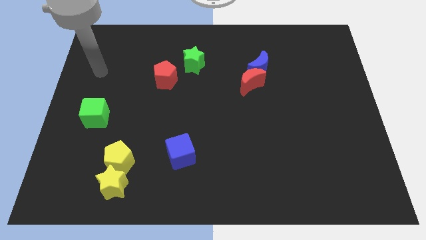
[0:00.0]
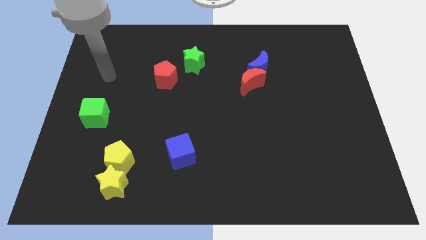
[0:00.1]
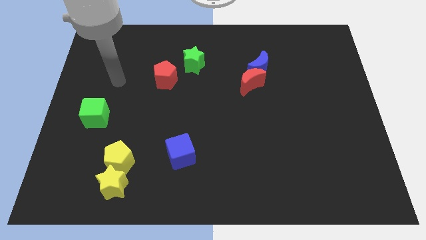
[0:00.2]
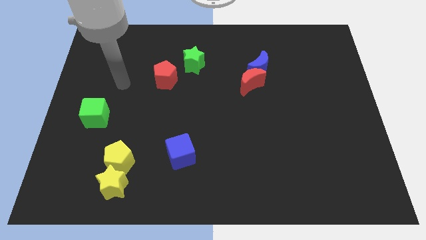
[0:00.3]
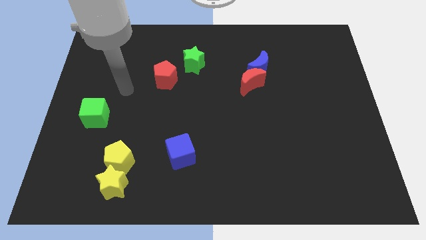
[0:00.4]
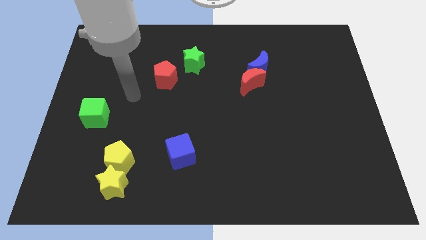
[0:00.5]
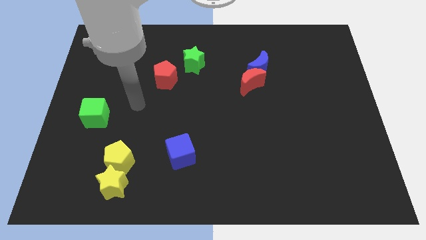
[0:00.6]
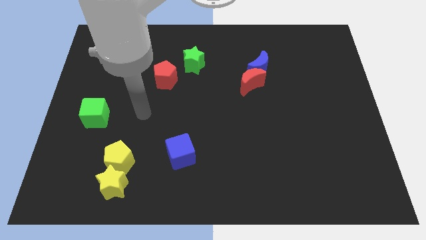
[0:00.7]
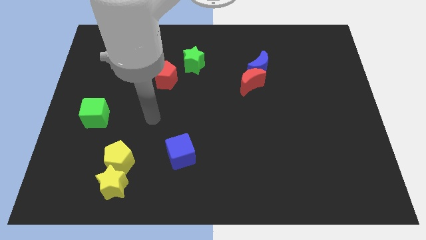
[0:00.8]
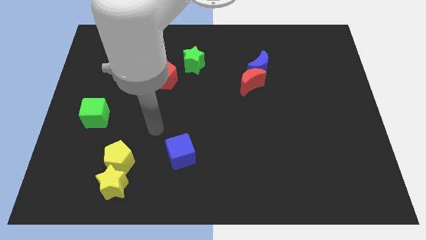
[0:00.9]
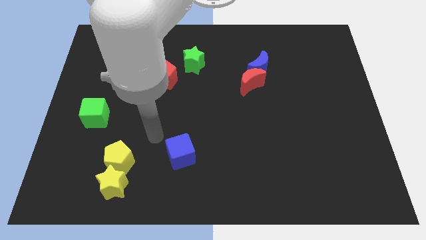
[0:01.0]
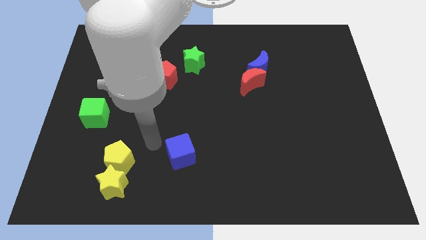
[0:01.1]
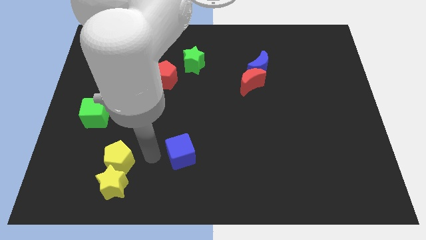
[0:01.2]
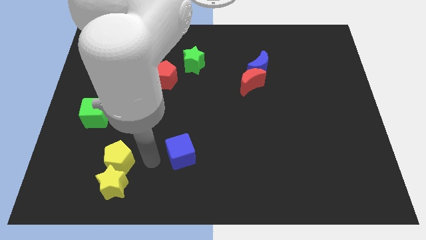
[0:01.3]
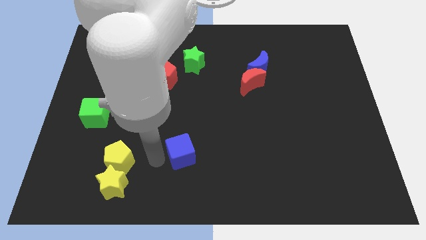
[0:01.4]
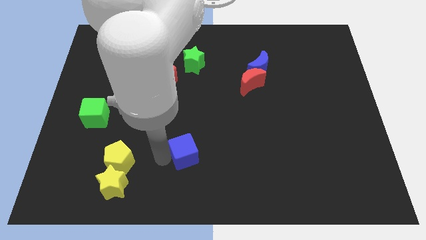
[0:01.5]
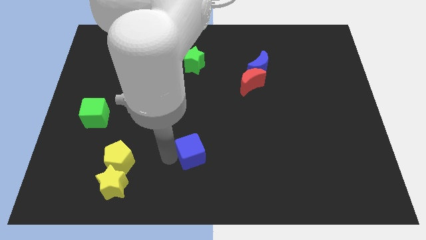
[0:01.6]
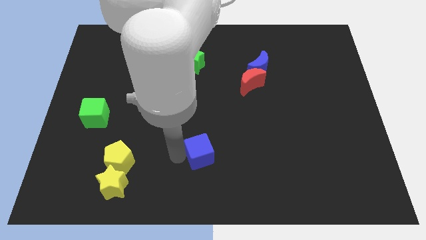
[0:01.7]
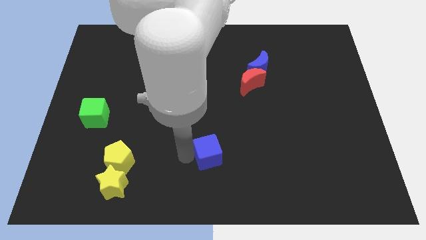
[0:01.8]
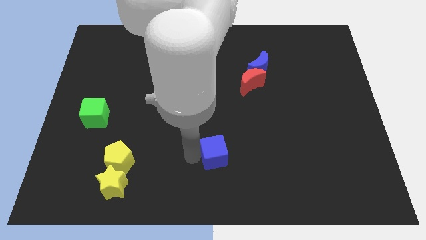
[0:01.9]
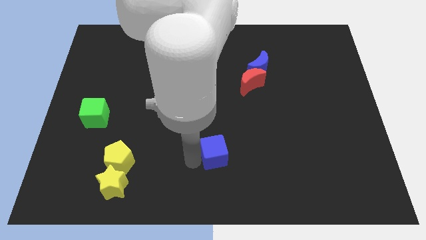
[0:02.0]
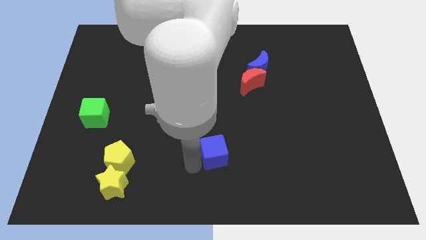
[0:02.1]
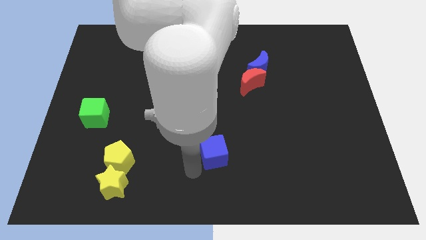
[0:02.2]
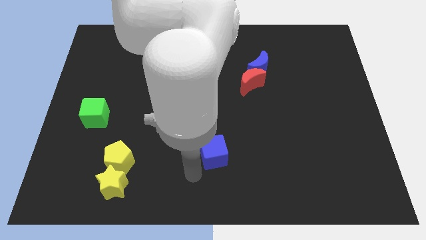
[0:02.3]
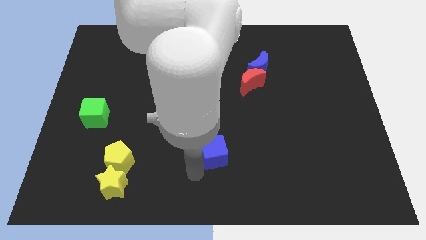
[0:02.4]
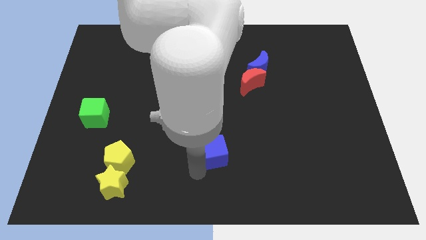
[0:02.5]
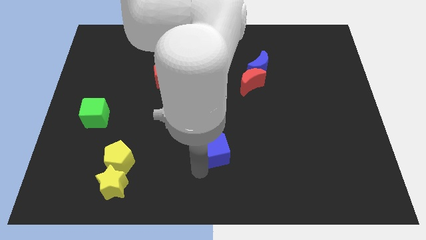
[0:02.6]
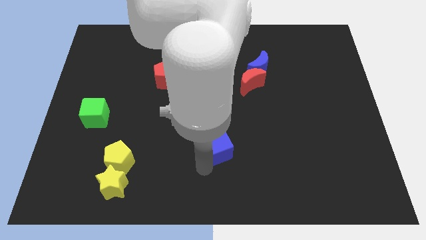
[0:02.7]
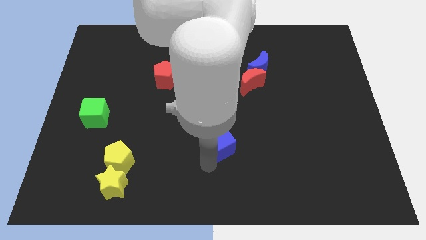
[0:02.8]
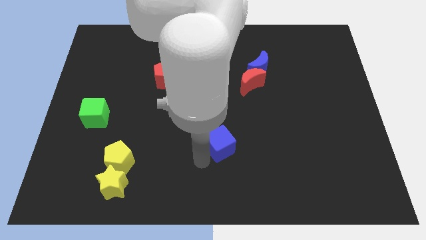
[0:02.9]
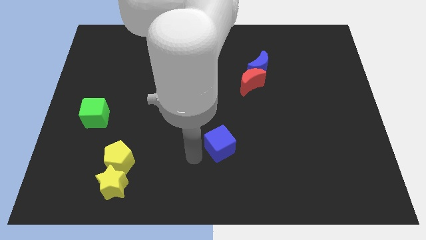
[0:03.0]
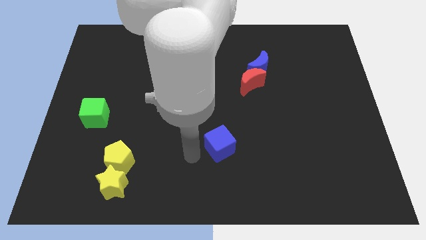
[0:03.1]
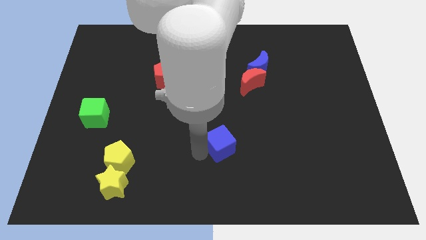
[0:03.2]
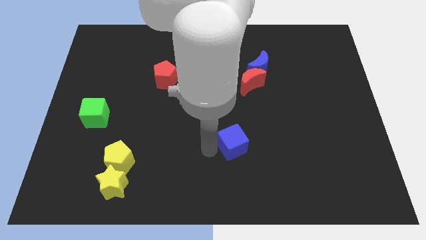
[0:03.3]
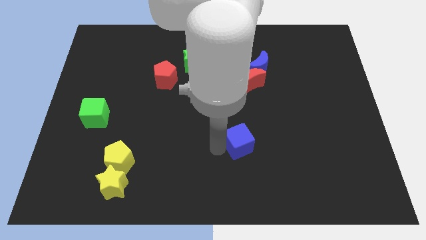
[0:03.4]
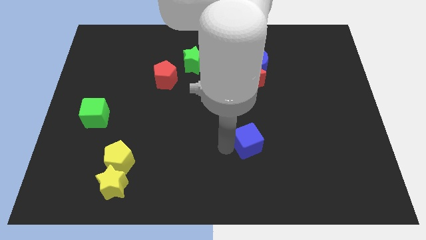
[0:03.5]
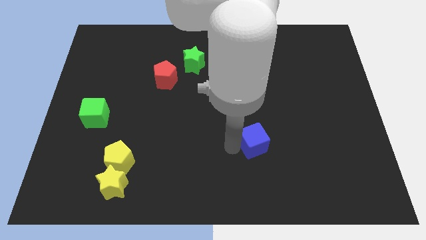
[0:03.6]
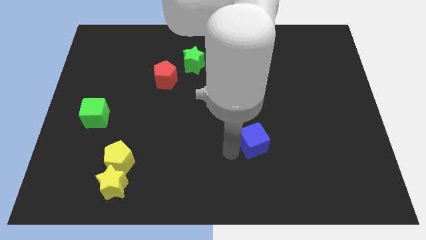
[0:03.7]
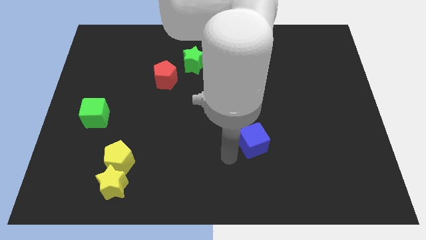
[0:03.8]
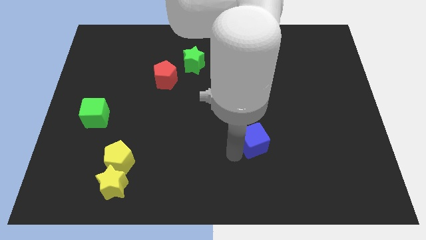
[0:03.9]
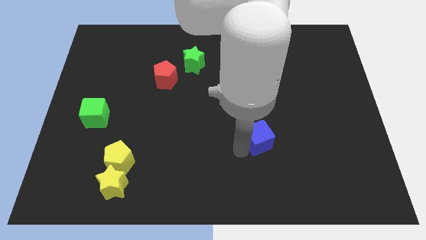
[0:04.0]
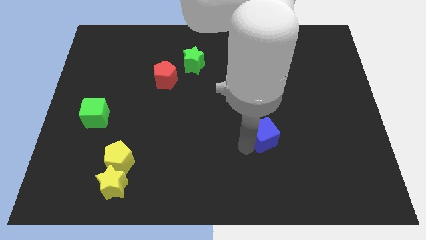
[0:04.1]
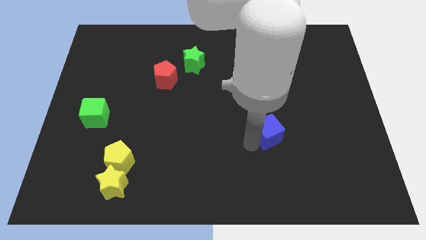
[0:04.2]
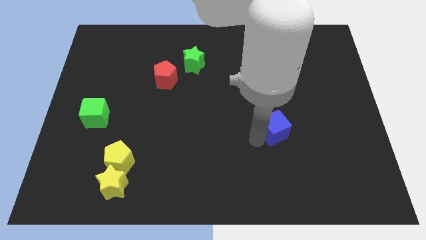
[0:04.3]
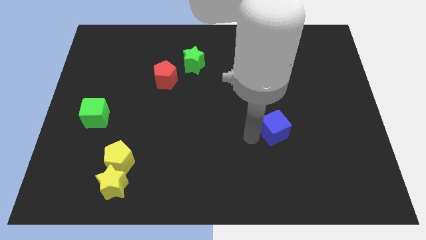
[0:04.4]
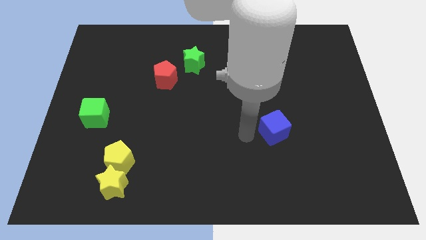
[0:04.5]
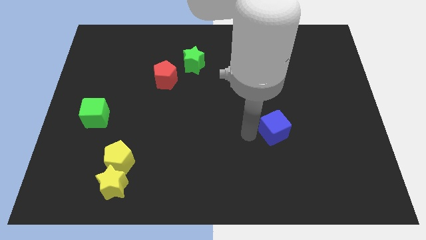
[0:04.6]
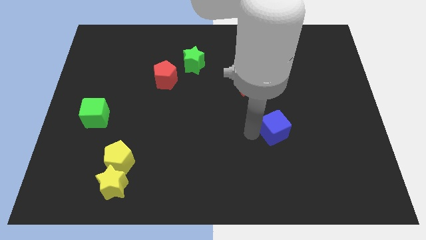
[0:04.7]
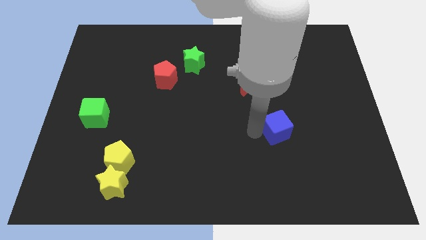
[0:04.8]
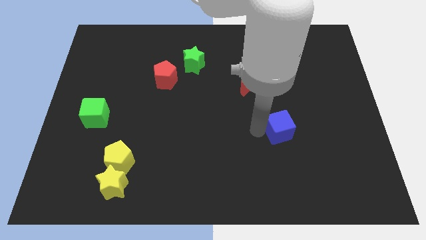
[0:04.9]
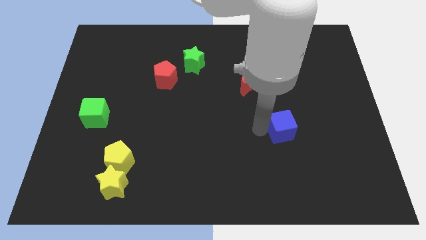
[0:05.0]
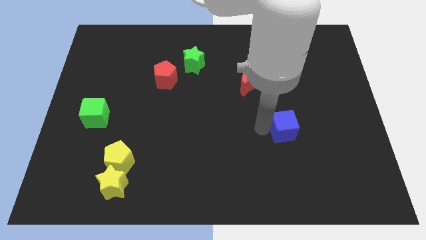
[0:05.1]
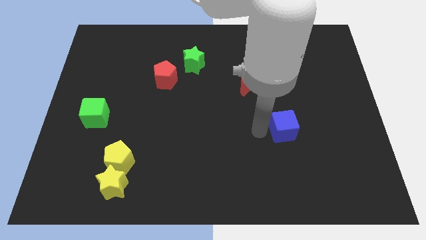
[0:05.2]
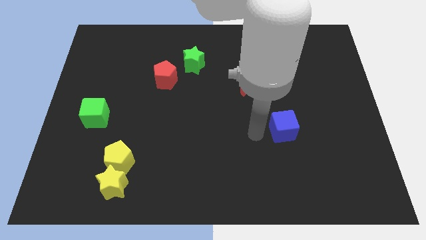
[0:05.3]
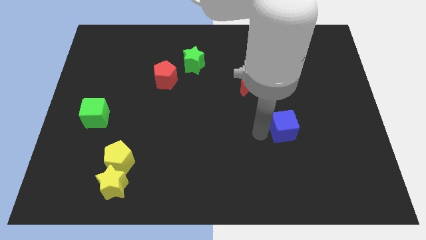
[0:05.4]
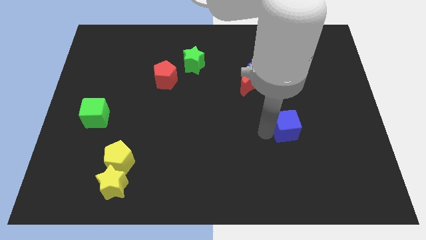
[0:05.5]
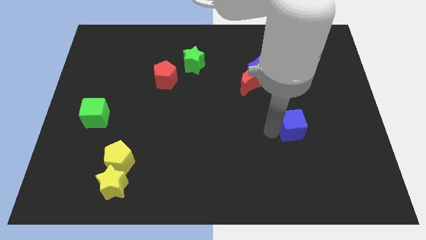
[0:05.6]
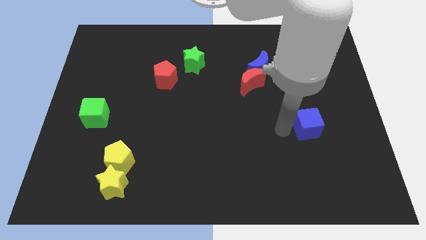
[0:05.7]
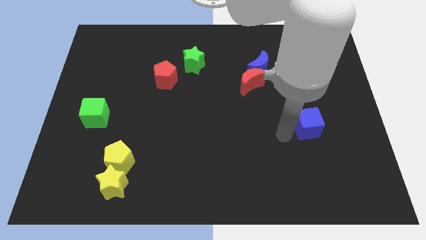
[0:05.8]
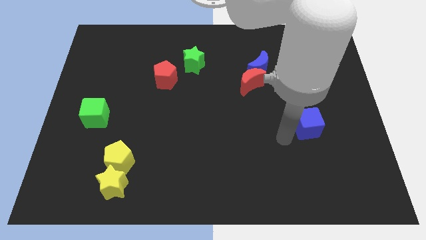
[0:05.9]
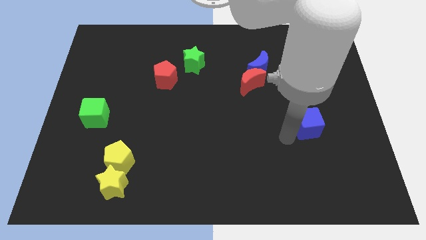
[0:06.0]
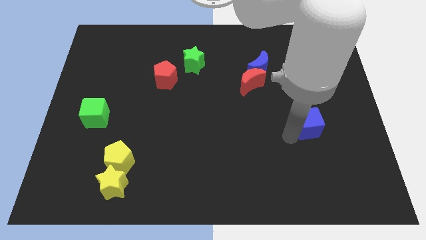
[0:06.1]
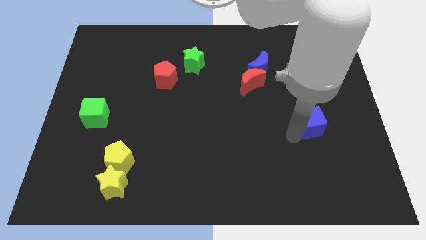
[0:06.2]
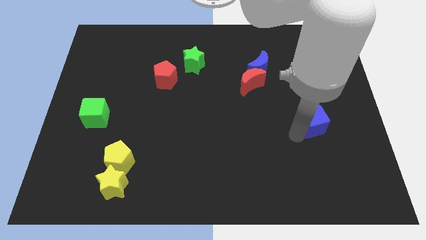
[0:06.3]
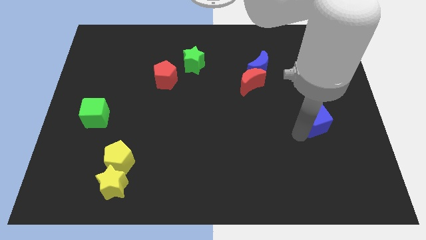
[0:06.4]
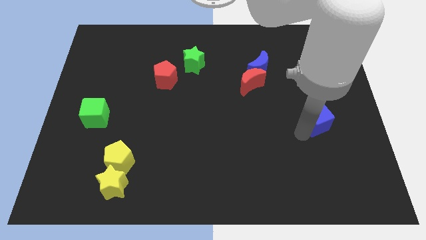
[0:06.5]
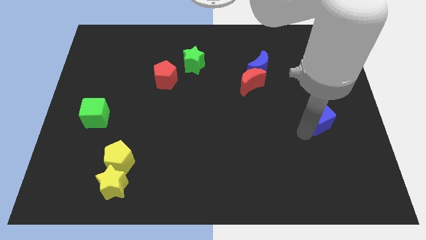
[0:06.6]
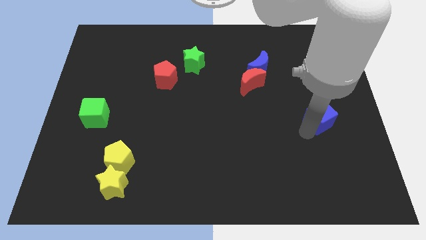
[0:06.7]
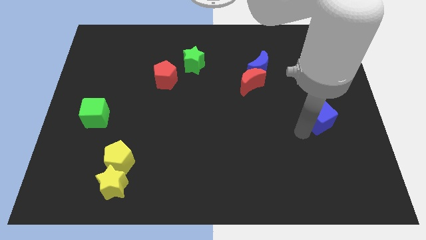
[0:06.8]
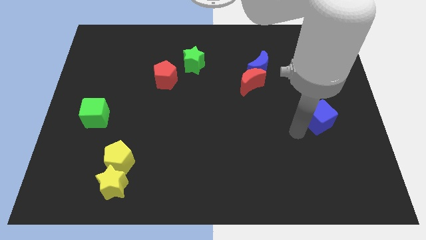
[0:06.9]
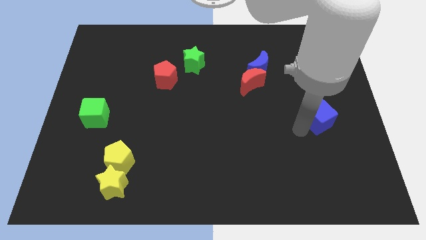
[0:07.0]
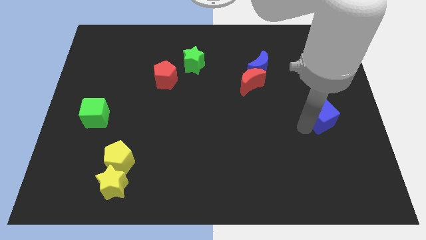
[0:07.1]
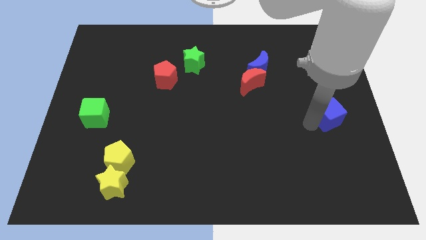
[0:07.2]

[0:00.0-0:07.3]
slide the blue cube to the right side of the board
